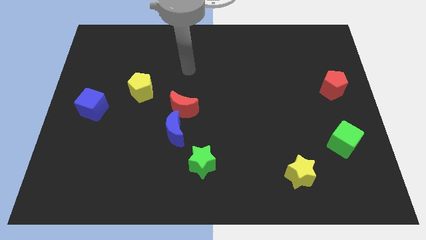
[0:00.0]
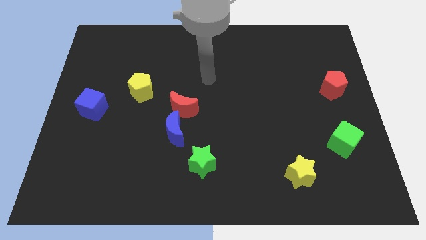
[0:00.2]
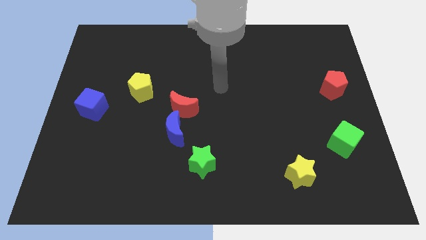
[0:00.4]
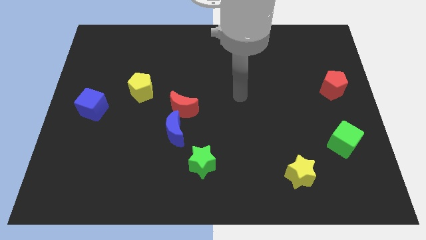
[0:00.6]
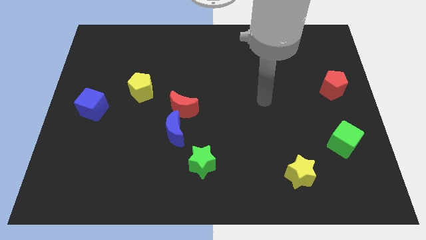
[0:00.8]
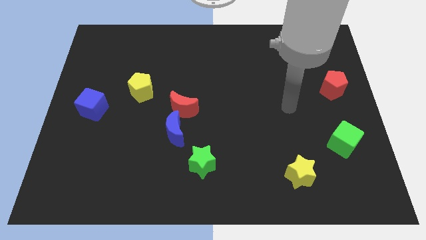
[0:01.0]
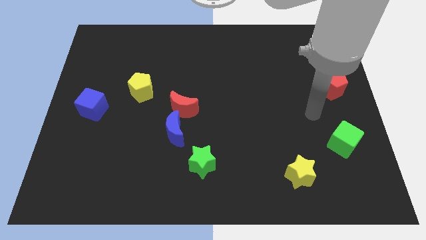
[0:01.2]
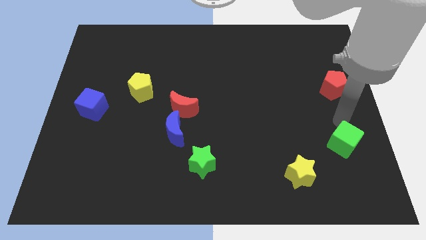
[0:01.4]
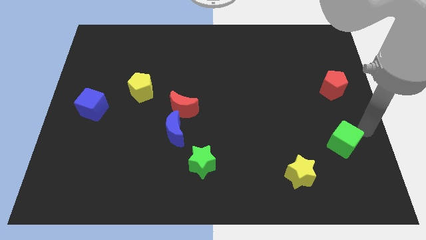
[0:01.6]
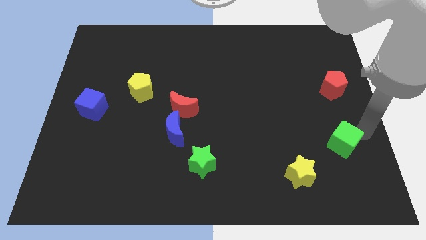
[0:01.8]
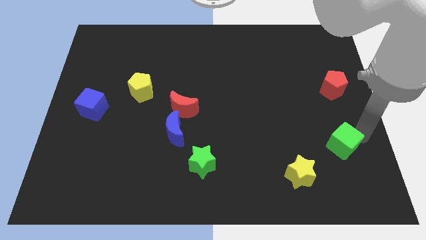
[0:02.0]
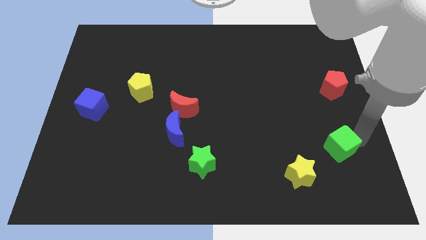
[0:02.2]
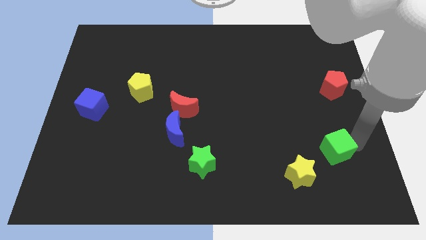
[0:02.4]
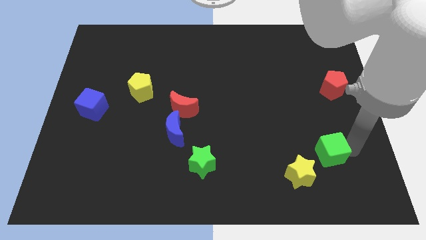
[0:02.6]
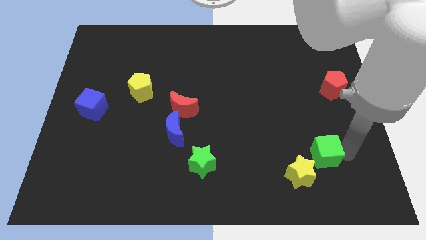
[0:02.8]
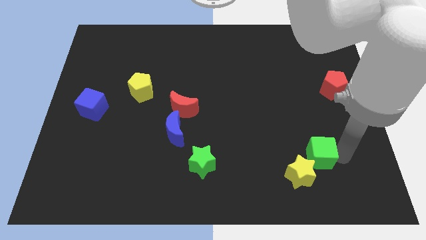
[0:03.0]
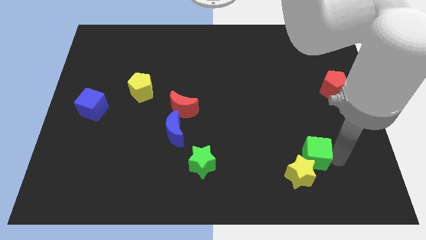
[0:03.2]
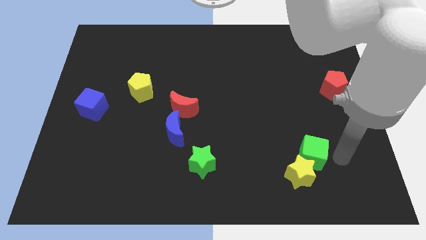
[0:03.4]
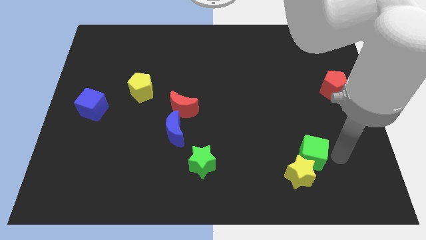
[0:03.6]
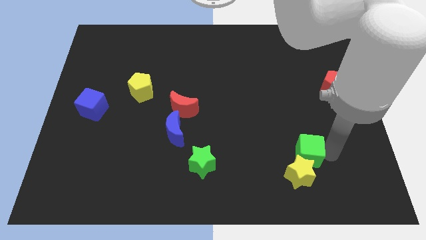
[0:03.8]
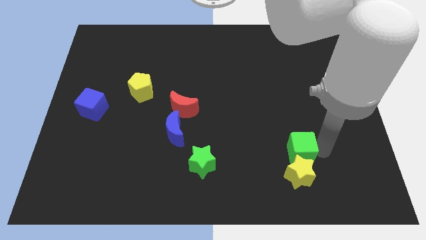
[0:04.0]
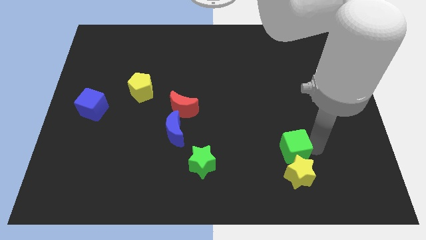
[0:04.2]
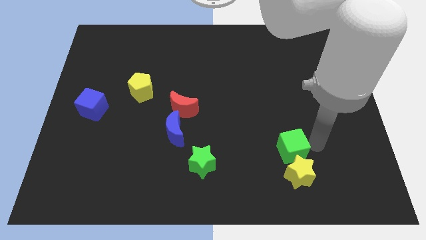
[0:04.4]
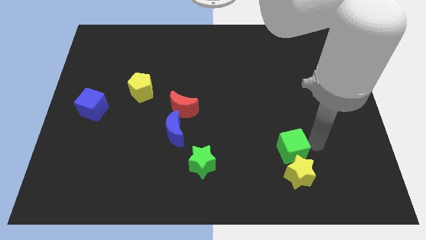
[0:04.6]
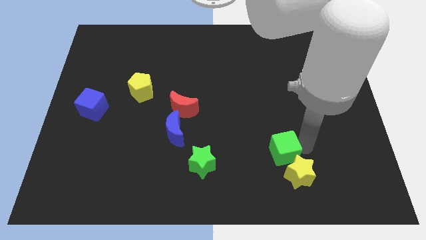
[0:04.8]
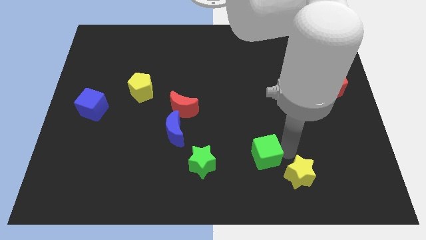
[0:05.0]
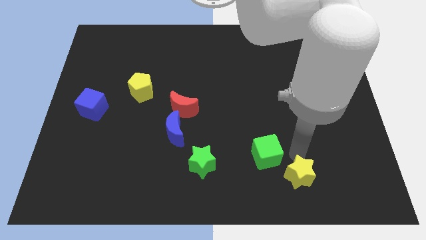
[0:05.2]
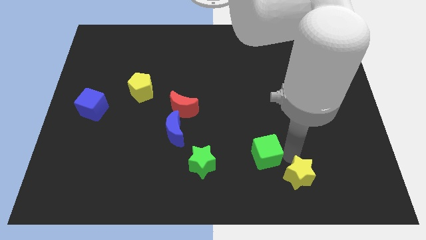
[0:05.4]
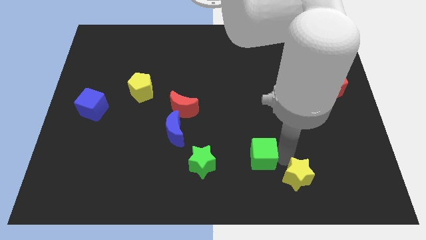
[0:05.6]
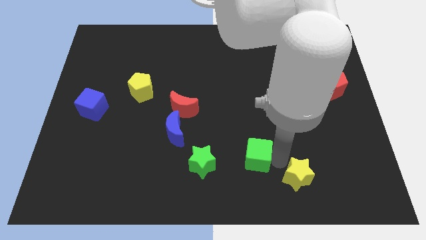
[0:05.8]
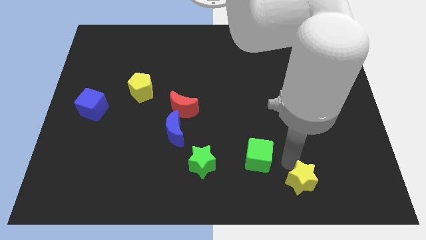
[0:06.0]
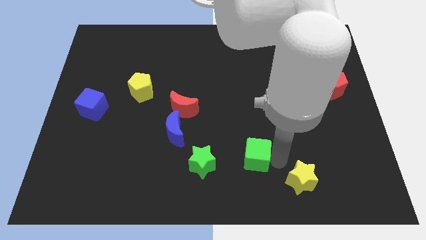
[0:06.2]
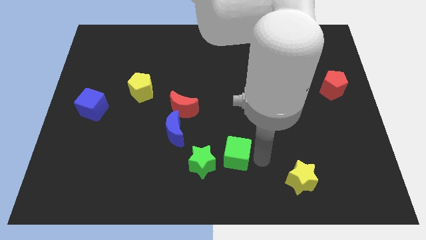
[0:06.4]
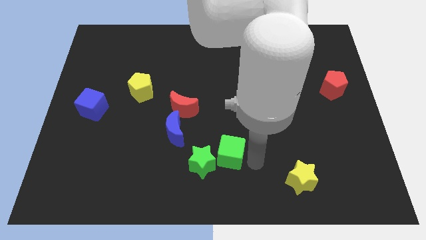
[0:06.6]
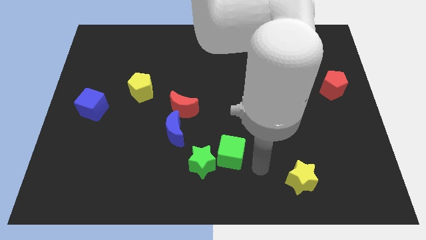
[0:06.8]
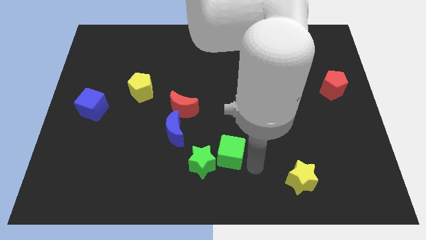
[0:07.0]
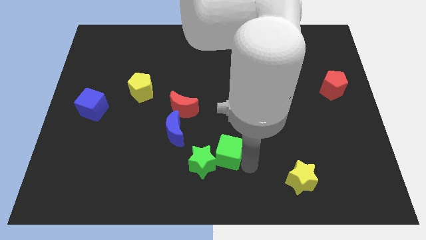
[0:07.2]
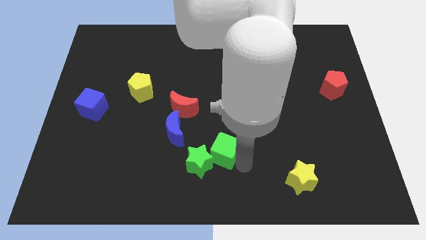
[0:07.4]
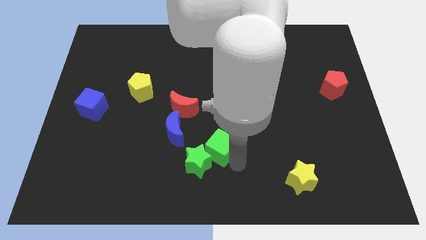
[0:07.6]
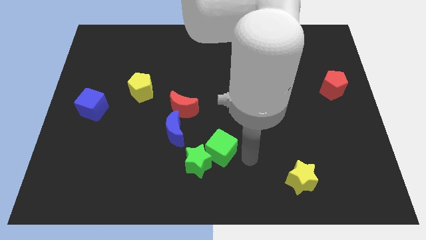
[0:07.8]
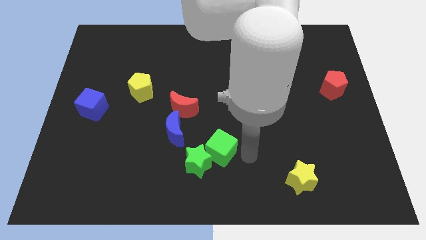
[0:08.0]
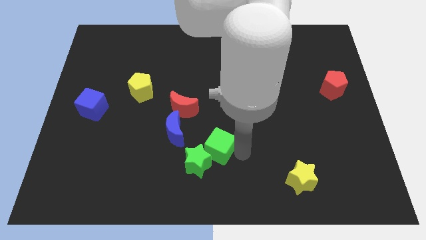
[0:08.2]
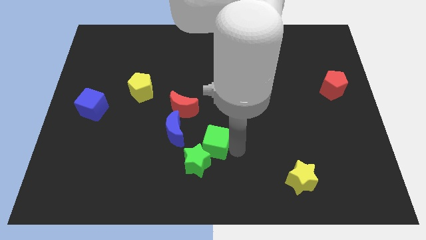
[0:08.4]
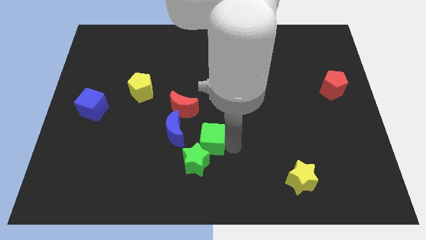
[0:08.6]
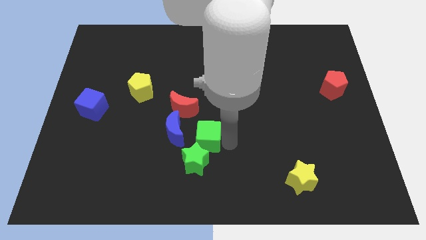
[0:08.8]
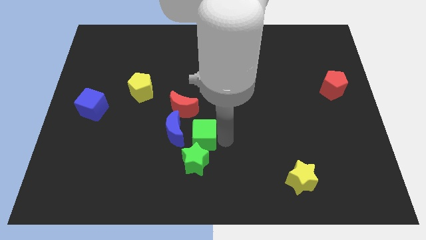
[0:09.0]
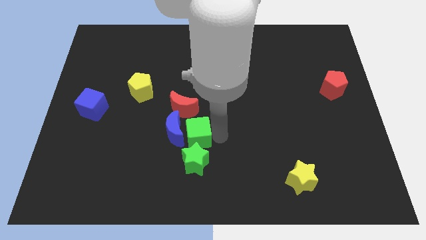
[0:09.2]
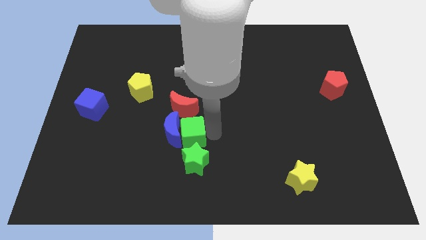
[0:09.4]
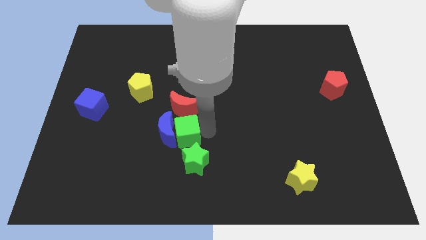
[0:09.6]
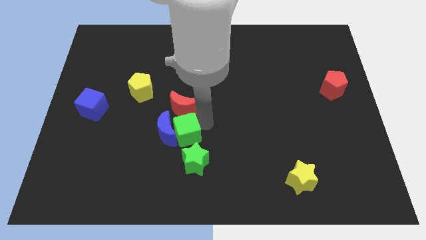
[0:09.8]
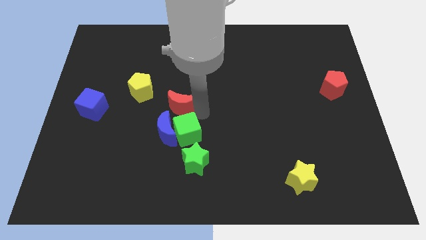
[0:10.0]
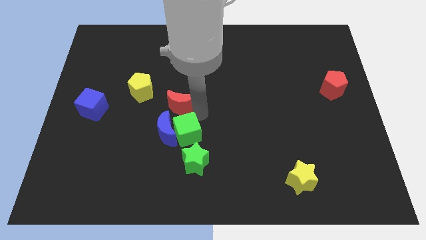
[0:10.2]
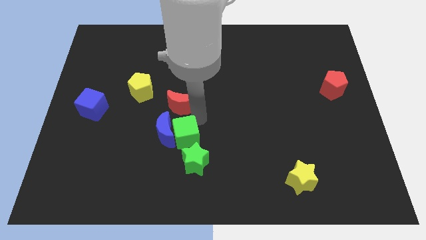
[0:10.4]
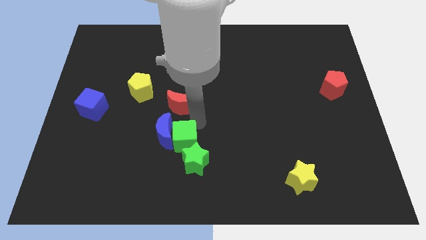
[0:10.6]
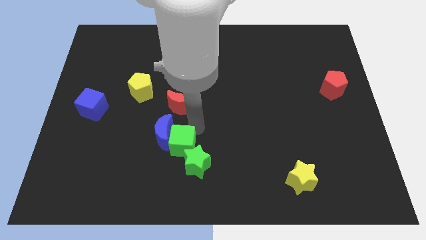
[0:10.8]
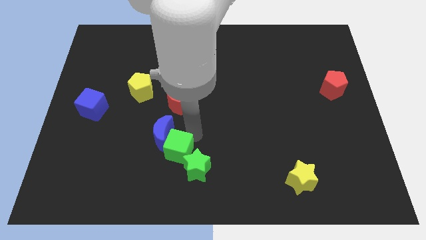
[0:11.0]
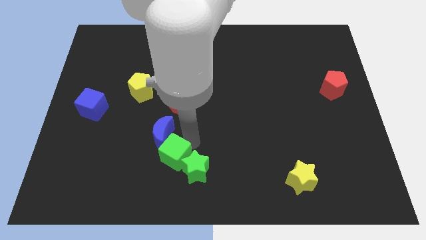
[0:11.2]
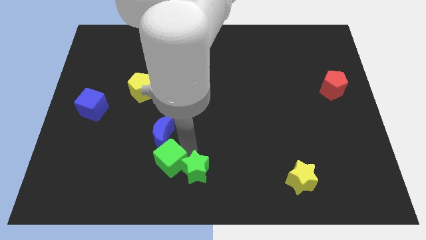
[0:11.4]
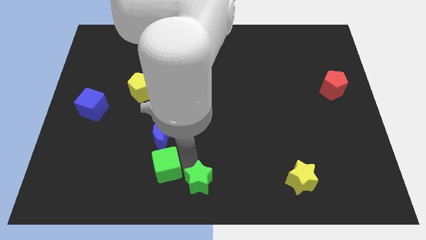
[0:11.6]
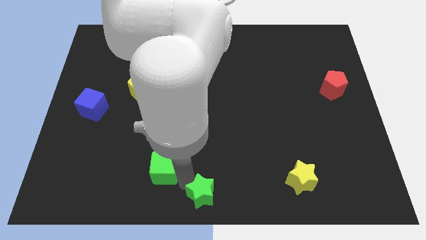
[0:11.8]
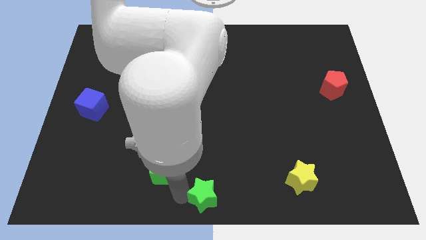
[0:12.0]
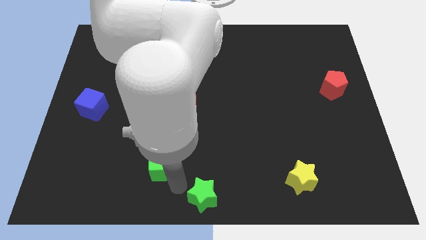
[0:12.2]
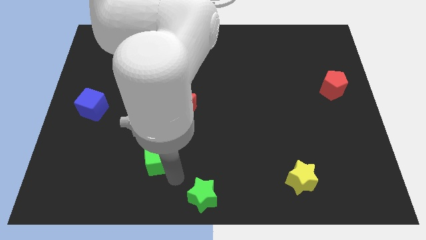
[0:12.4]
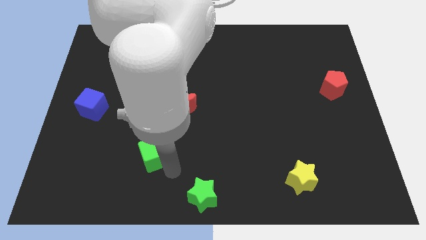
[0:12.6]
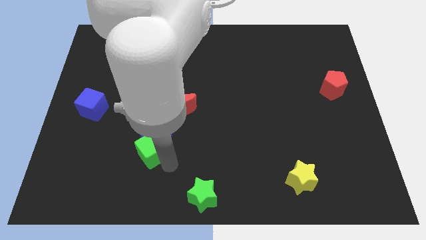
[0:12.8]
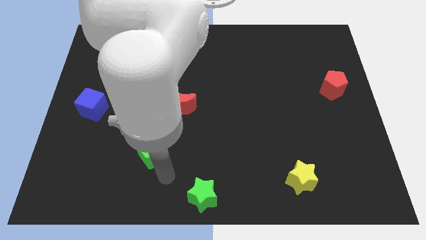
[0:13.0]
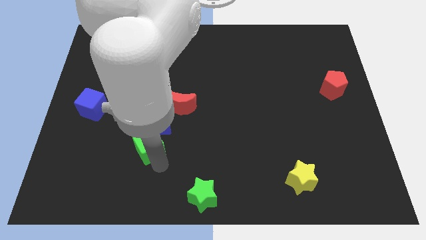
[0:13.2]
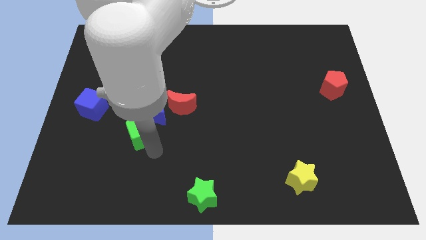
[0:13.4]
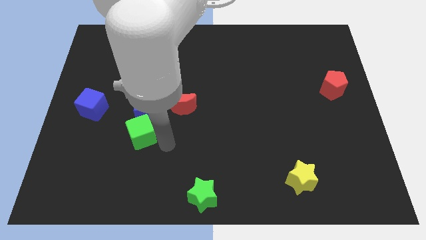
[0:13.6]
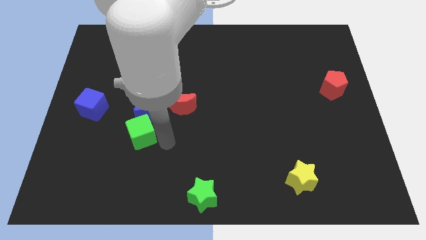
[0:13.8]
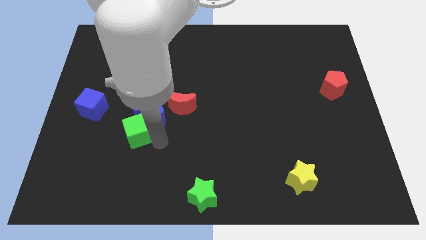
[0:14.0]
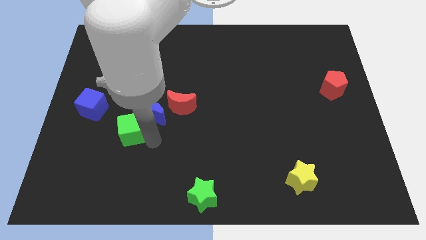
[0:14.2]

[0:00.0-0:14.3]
move the green cube diagonally down and to the right of the blue cube

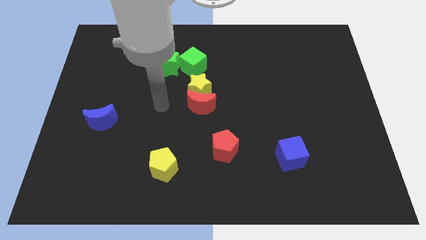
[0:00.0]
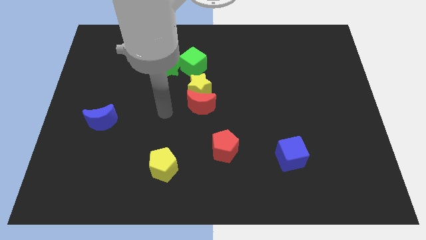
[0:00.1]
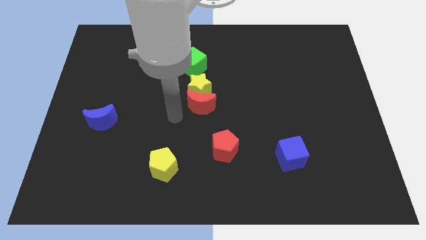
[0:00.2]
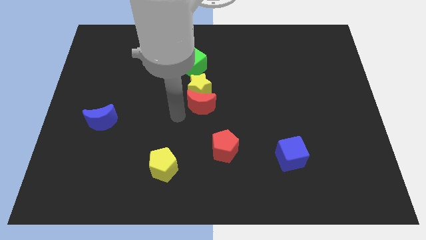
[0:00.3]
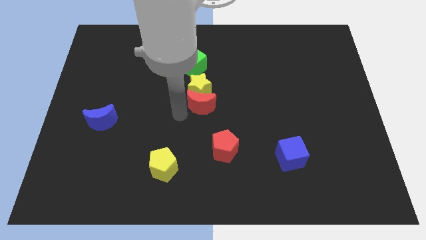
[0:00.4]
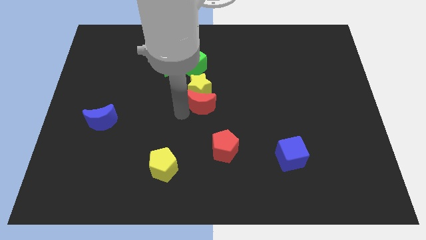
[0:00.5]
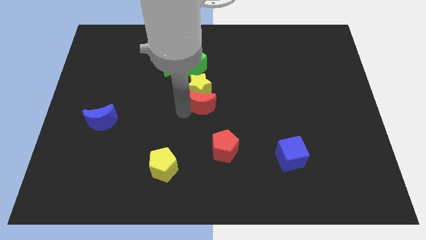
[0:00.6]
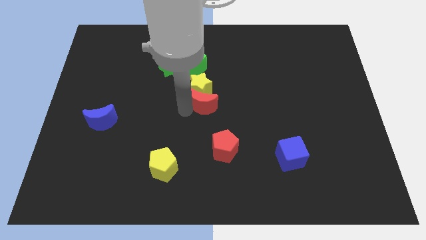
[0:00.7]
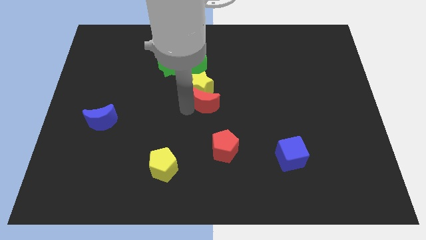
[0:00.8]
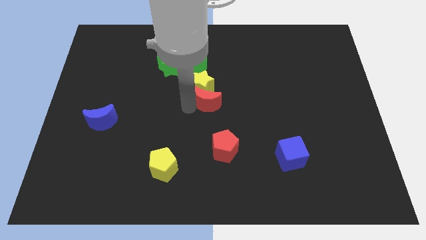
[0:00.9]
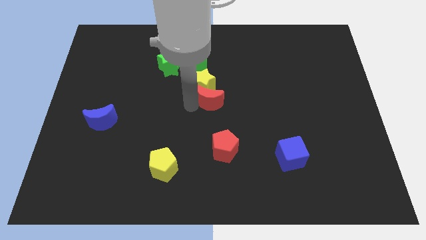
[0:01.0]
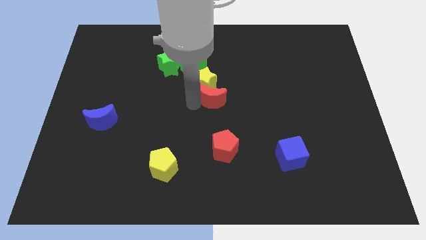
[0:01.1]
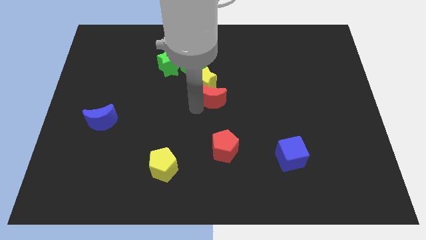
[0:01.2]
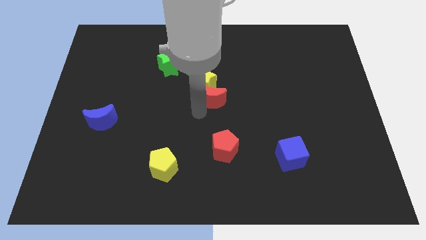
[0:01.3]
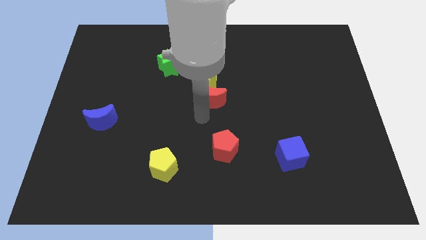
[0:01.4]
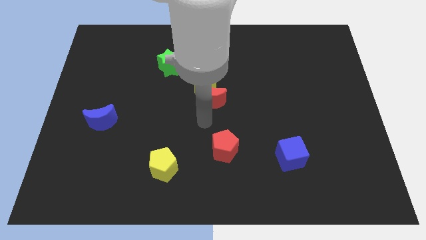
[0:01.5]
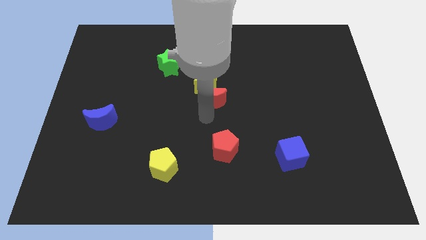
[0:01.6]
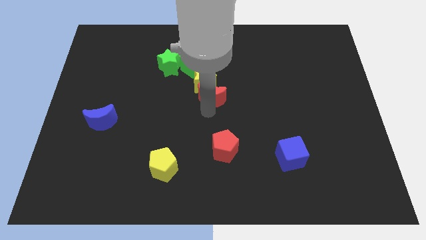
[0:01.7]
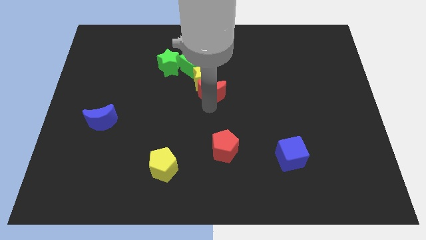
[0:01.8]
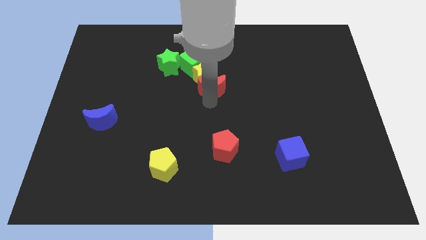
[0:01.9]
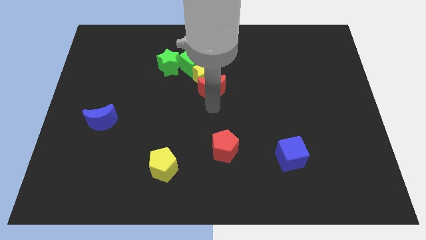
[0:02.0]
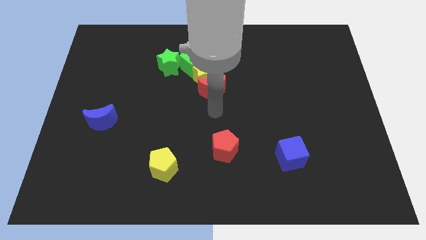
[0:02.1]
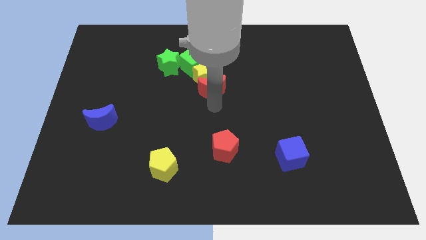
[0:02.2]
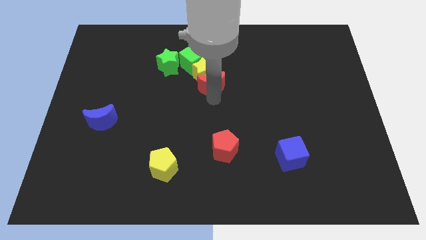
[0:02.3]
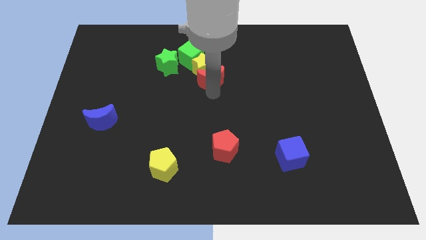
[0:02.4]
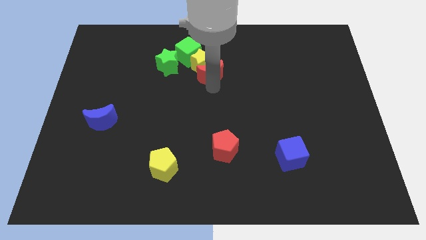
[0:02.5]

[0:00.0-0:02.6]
move the red moon right of the green star
